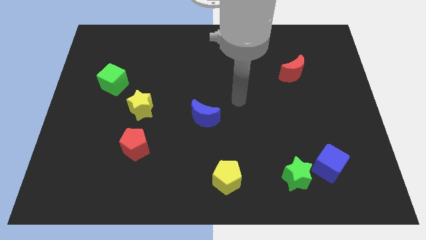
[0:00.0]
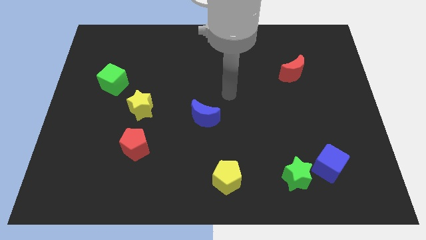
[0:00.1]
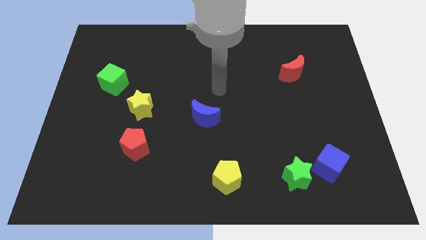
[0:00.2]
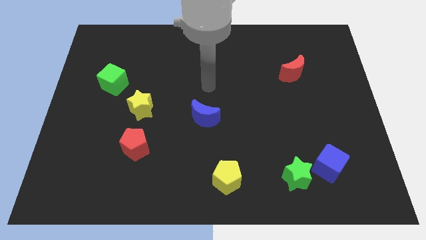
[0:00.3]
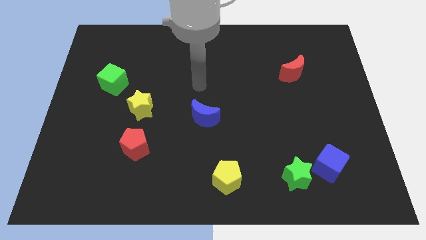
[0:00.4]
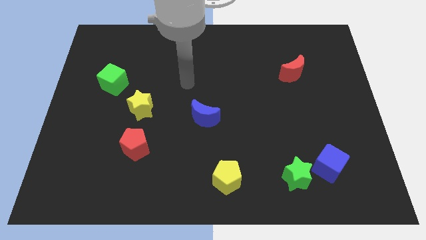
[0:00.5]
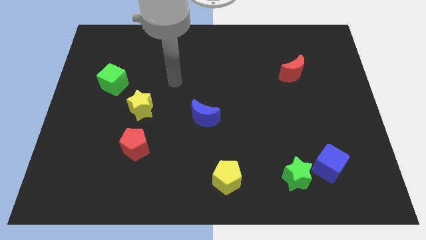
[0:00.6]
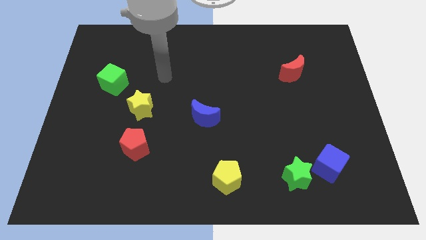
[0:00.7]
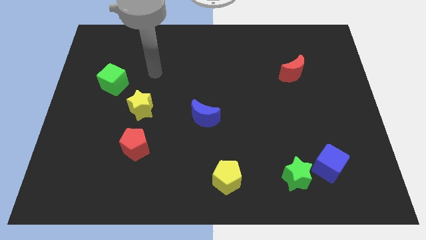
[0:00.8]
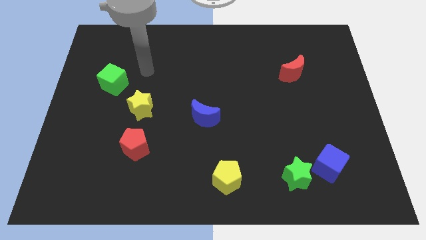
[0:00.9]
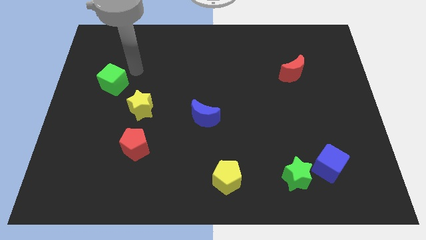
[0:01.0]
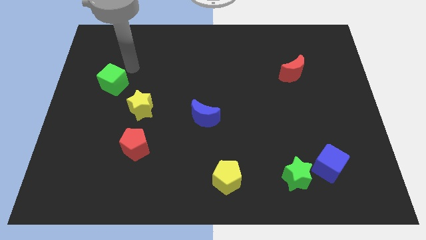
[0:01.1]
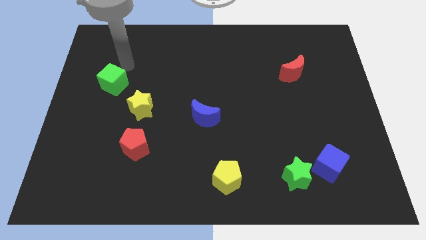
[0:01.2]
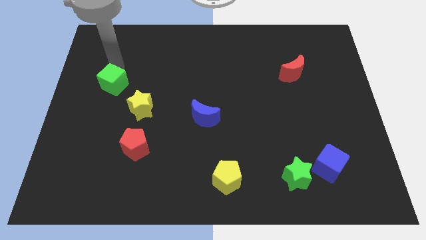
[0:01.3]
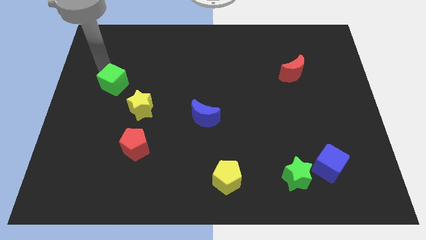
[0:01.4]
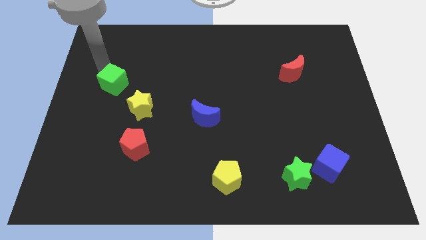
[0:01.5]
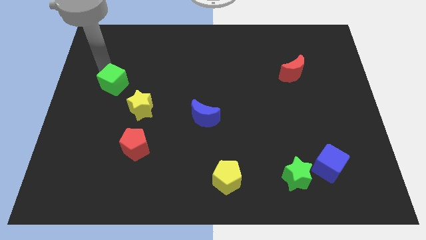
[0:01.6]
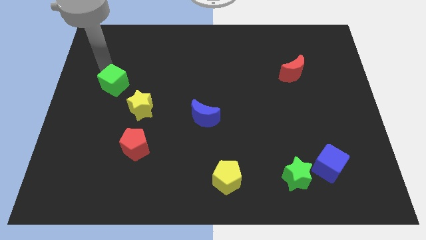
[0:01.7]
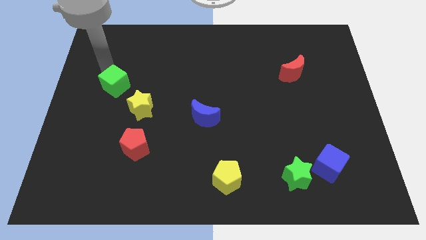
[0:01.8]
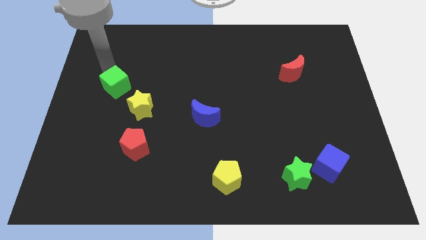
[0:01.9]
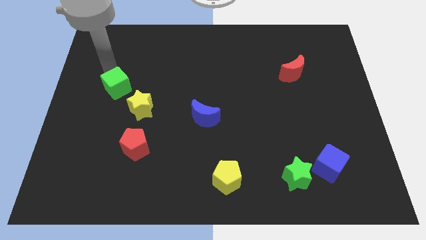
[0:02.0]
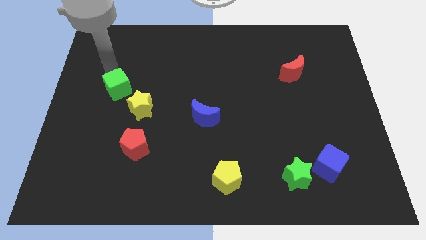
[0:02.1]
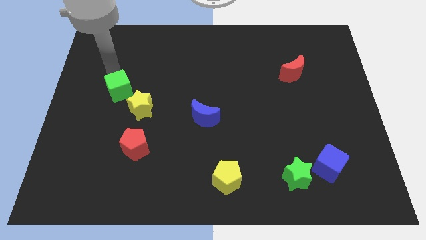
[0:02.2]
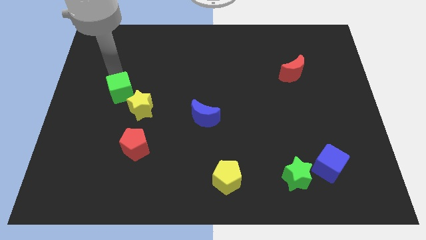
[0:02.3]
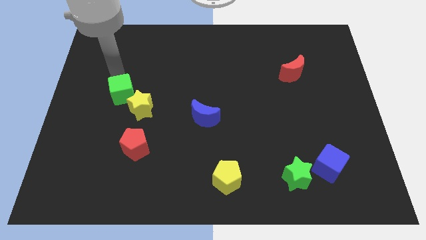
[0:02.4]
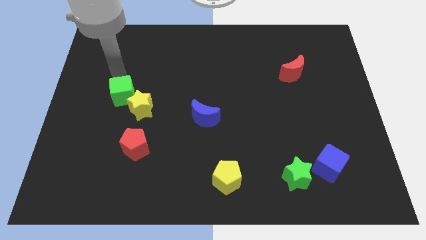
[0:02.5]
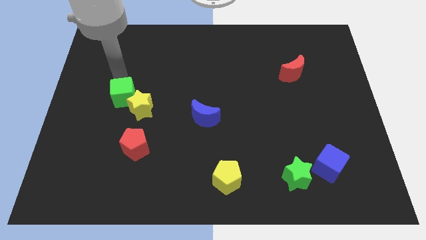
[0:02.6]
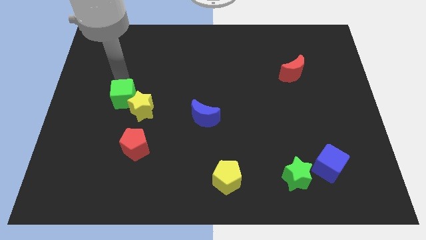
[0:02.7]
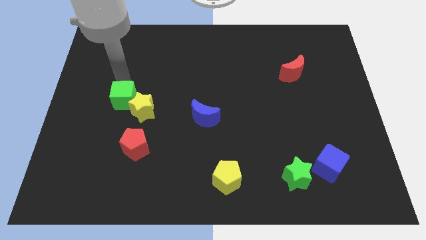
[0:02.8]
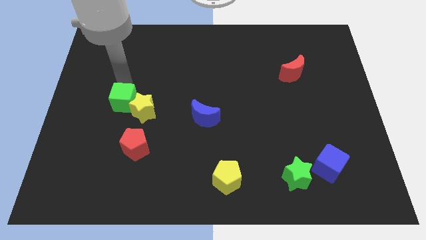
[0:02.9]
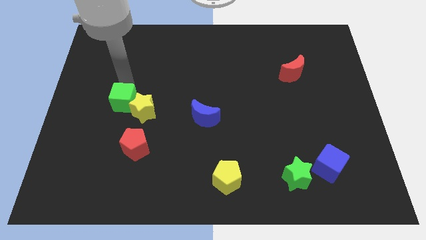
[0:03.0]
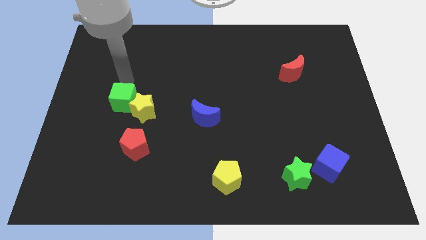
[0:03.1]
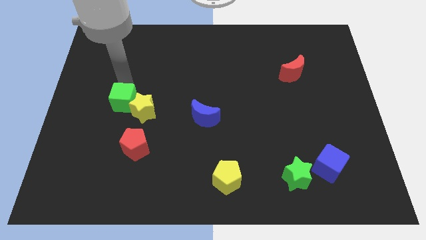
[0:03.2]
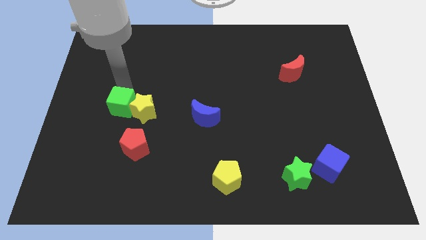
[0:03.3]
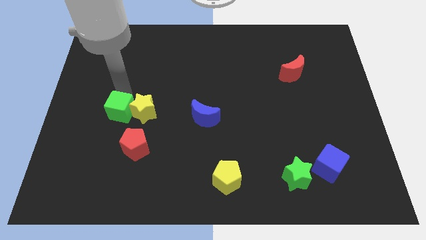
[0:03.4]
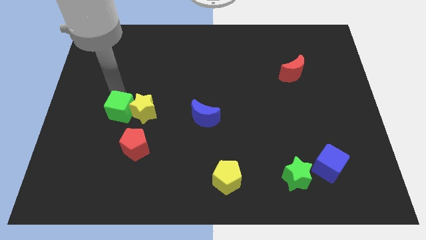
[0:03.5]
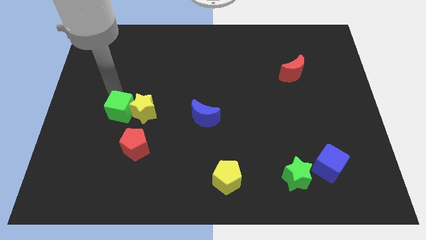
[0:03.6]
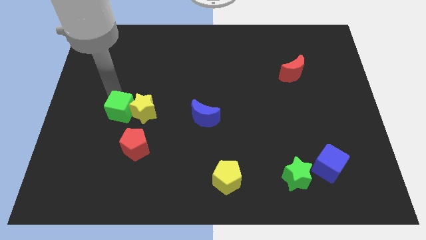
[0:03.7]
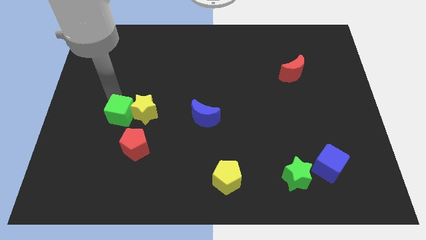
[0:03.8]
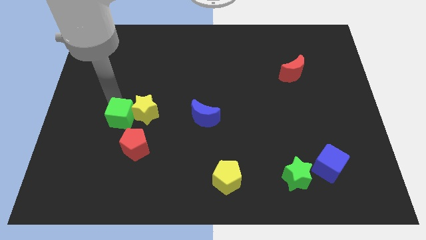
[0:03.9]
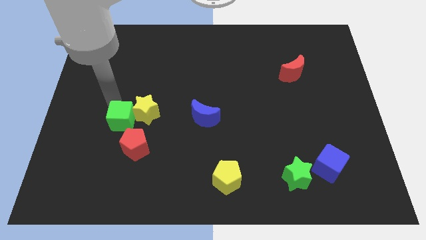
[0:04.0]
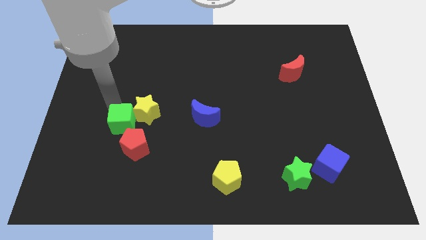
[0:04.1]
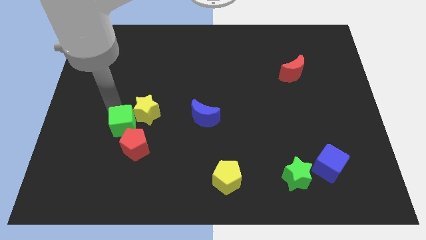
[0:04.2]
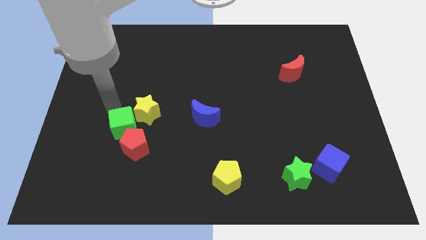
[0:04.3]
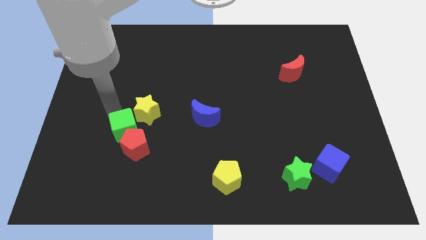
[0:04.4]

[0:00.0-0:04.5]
put the green cube to the red pentagon

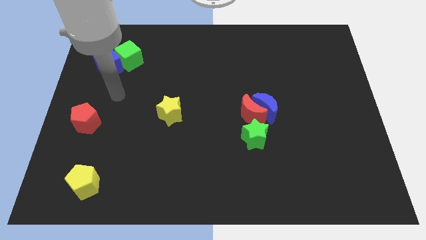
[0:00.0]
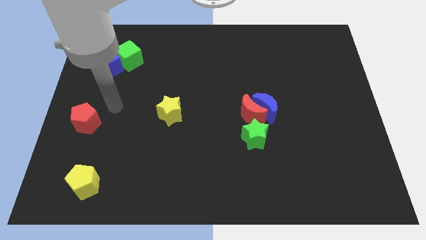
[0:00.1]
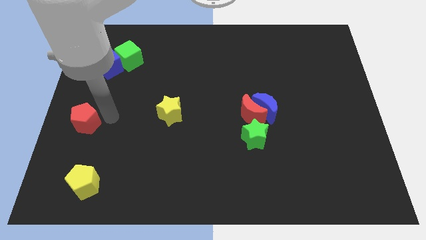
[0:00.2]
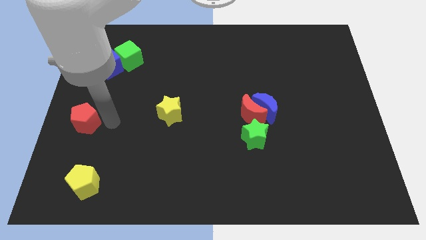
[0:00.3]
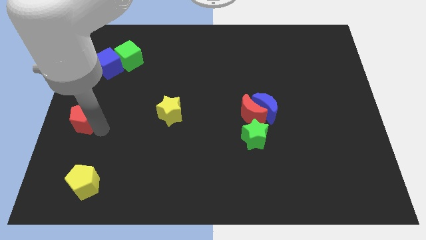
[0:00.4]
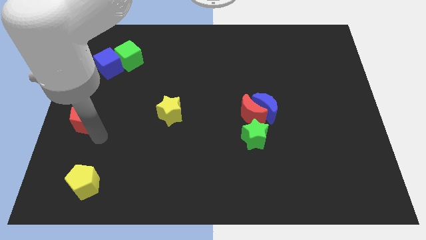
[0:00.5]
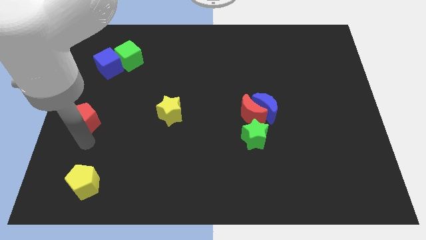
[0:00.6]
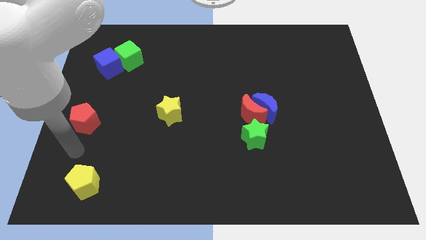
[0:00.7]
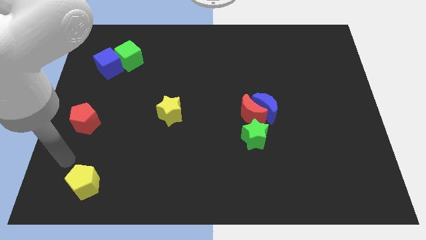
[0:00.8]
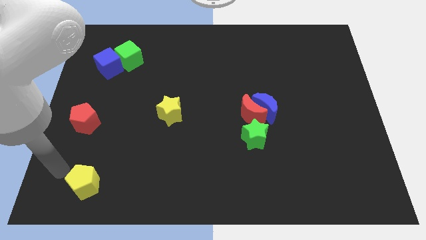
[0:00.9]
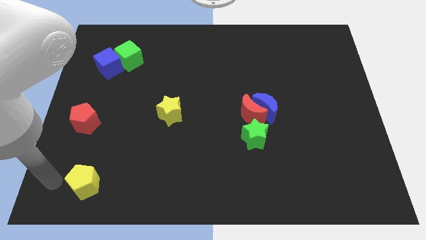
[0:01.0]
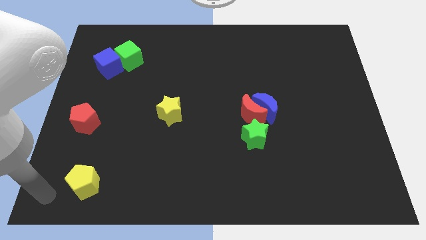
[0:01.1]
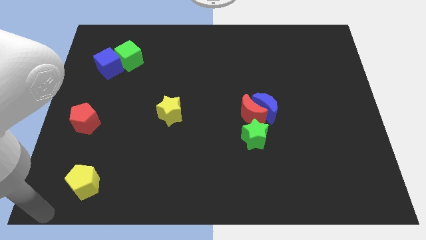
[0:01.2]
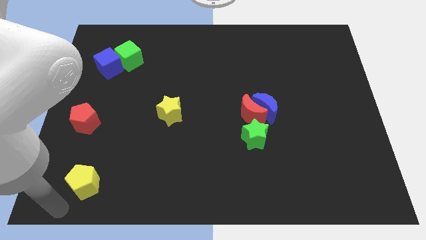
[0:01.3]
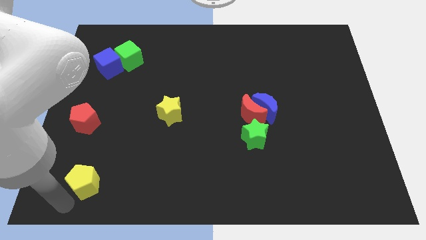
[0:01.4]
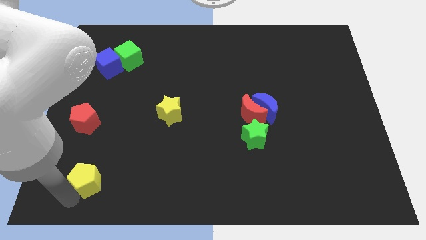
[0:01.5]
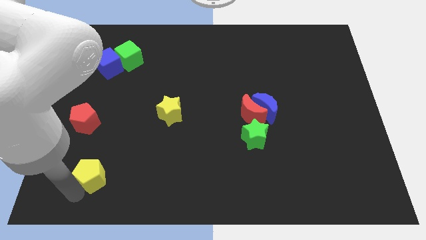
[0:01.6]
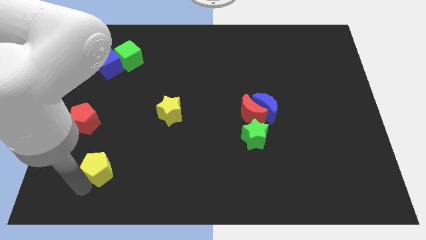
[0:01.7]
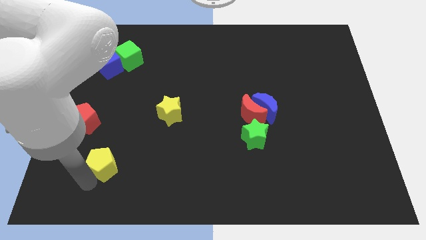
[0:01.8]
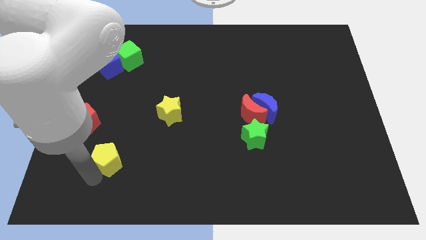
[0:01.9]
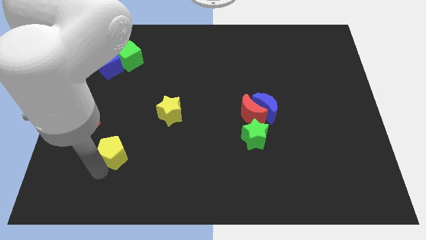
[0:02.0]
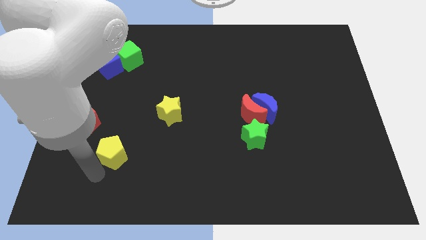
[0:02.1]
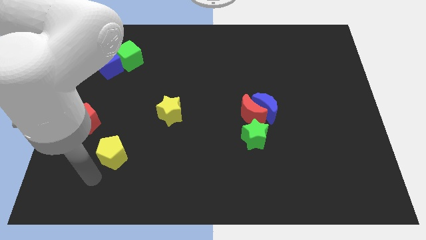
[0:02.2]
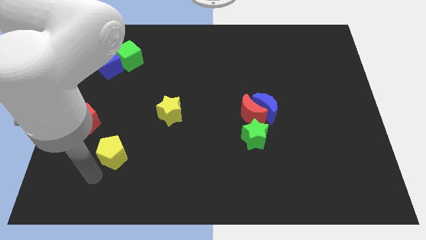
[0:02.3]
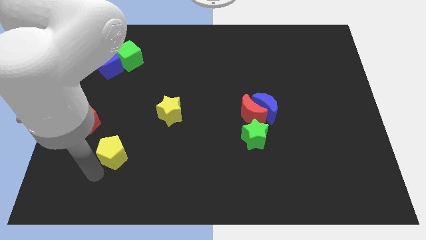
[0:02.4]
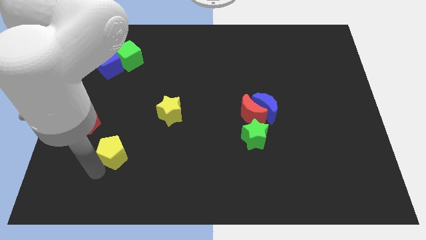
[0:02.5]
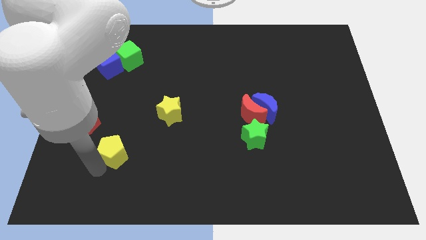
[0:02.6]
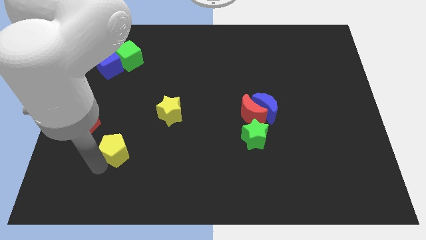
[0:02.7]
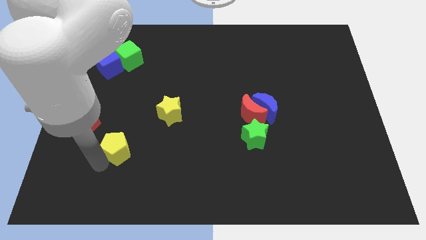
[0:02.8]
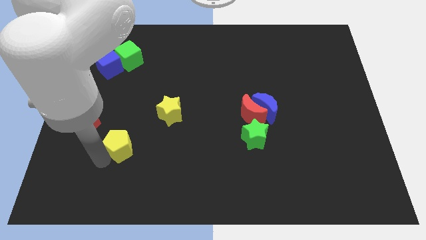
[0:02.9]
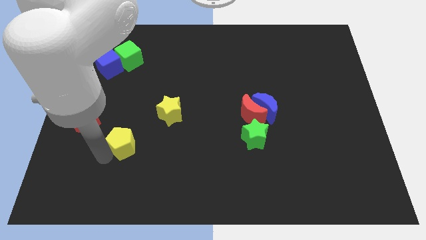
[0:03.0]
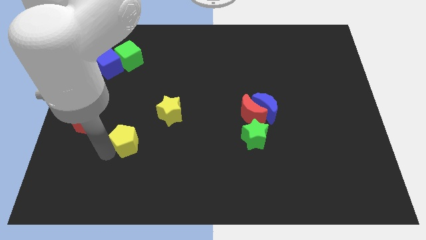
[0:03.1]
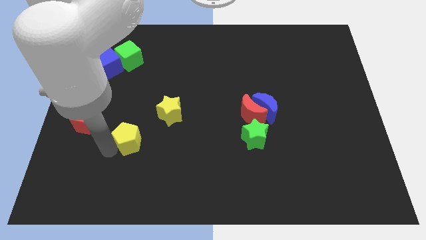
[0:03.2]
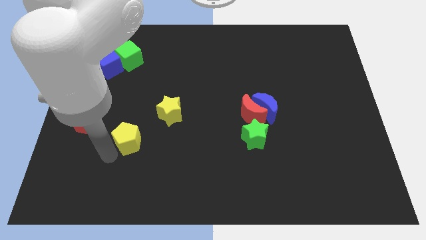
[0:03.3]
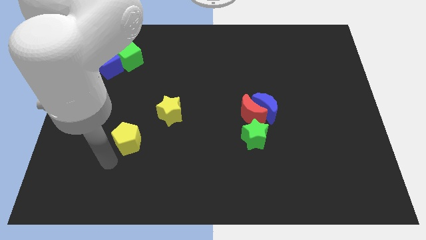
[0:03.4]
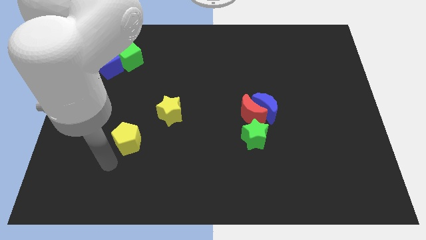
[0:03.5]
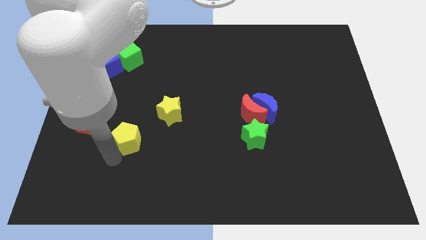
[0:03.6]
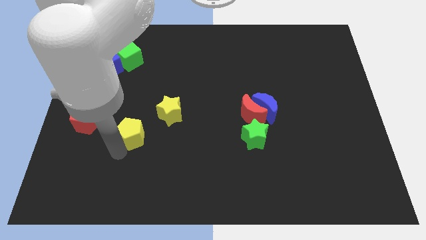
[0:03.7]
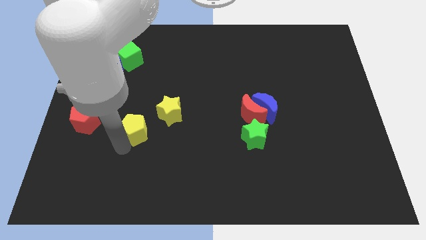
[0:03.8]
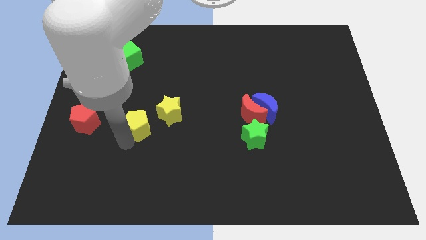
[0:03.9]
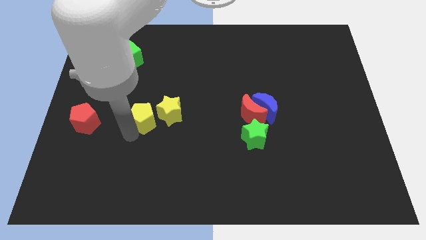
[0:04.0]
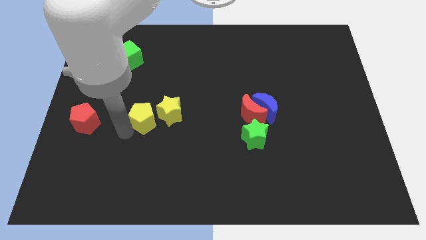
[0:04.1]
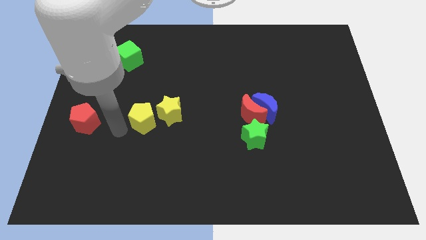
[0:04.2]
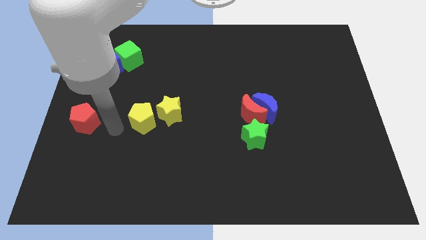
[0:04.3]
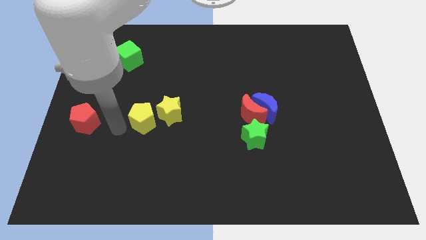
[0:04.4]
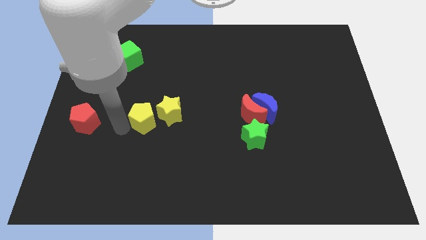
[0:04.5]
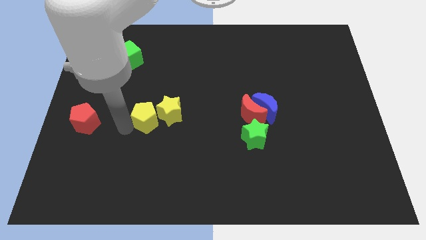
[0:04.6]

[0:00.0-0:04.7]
put the yellow pentagon close to the yellow star
